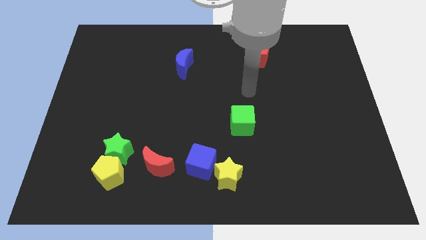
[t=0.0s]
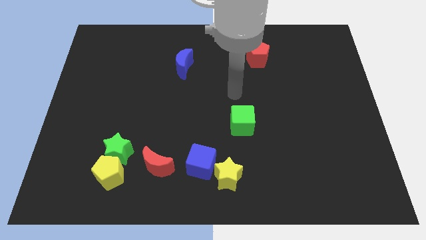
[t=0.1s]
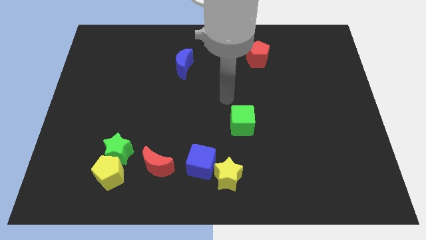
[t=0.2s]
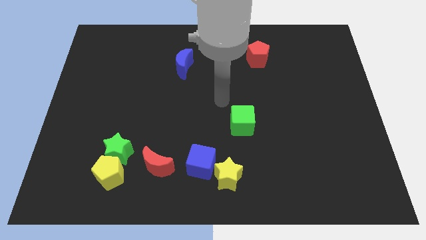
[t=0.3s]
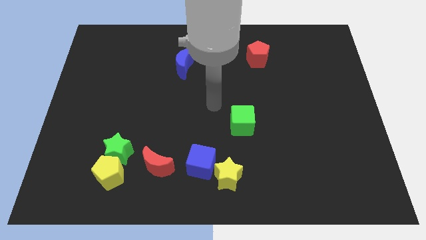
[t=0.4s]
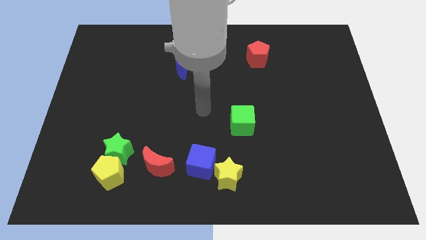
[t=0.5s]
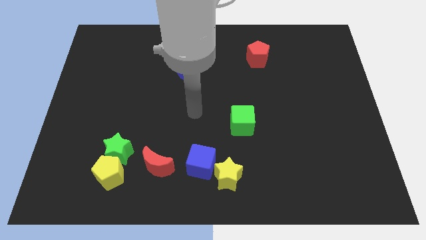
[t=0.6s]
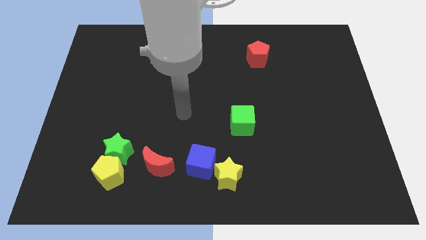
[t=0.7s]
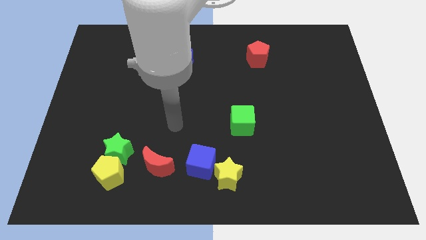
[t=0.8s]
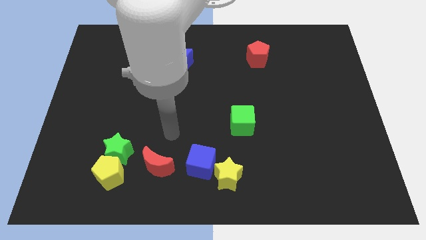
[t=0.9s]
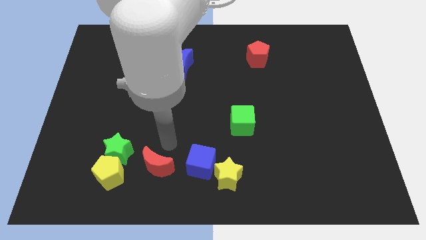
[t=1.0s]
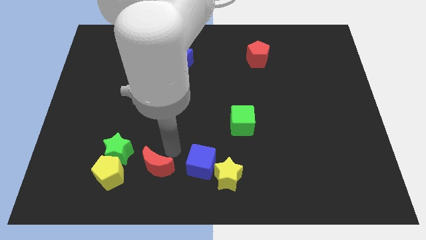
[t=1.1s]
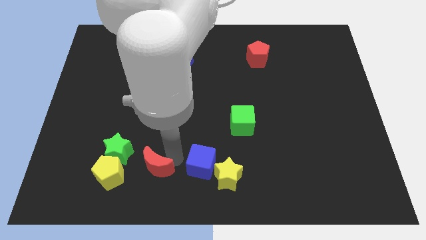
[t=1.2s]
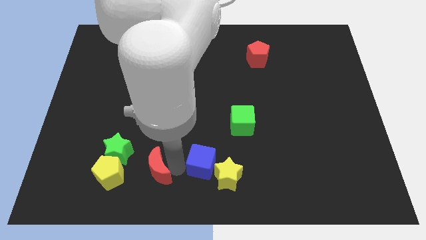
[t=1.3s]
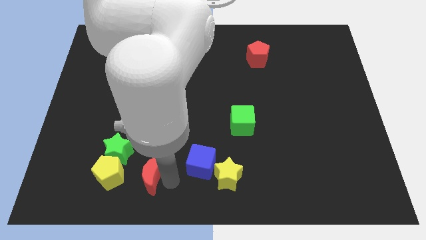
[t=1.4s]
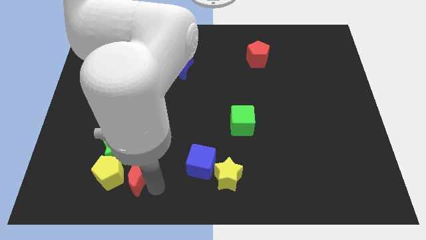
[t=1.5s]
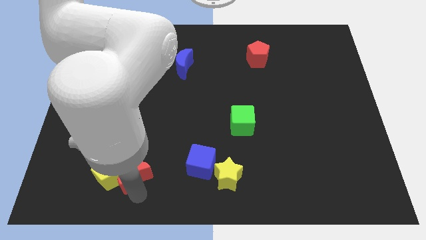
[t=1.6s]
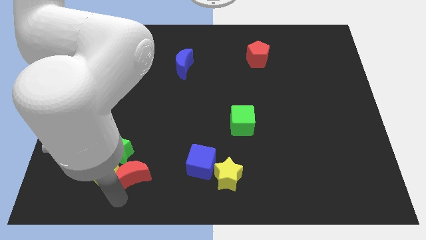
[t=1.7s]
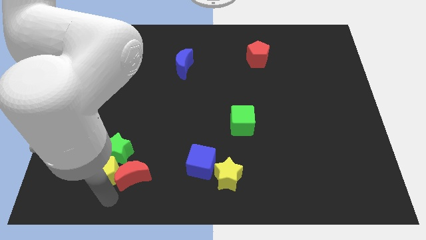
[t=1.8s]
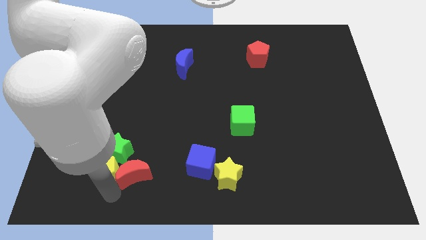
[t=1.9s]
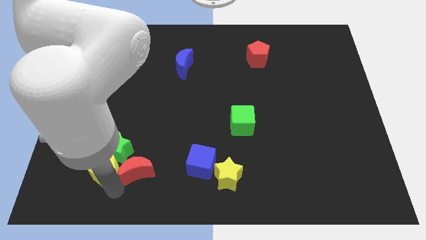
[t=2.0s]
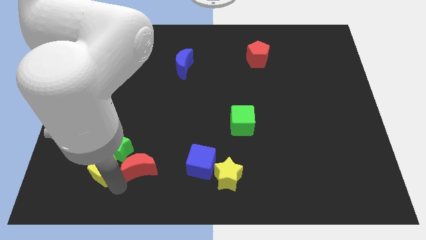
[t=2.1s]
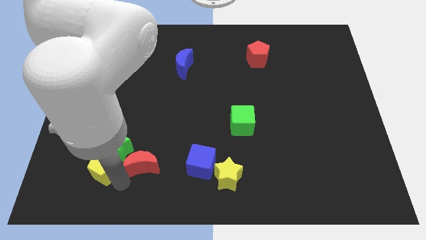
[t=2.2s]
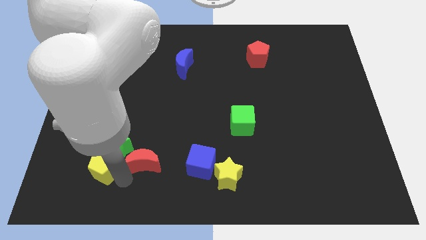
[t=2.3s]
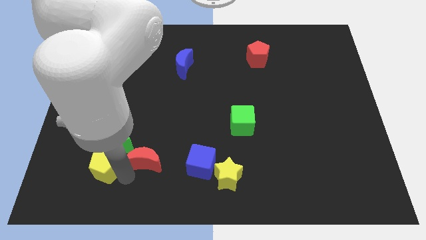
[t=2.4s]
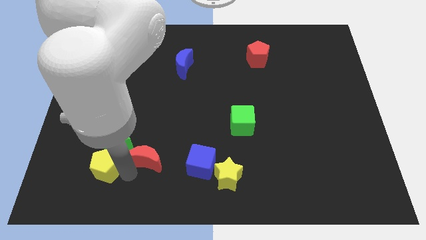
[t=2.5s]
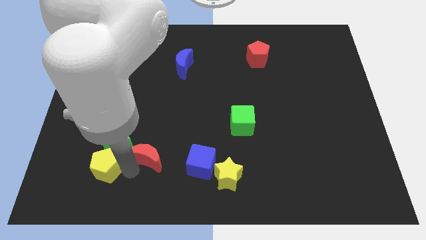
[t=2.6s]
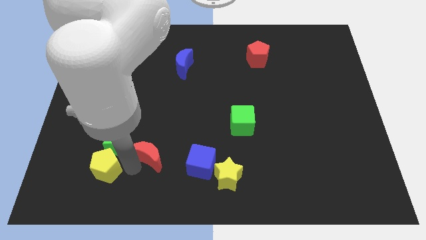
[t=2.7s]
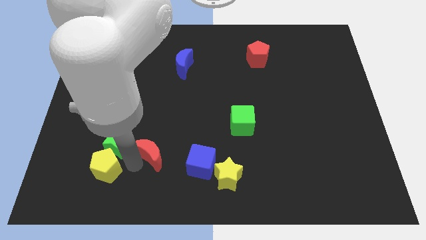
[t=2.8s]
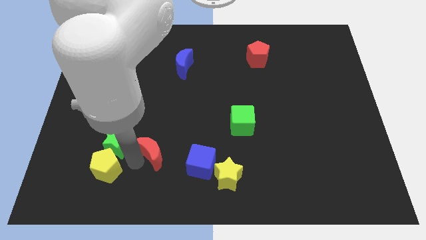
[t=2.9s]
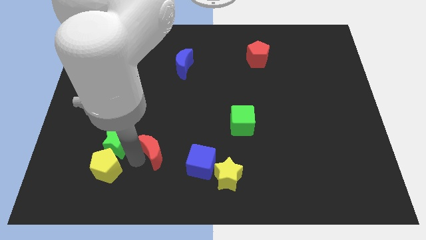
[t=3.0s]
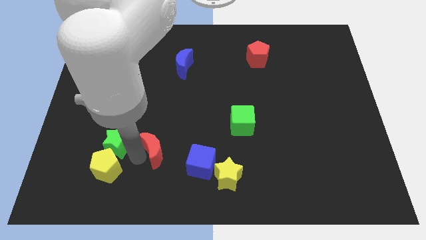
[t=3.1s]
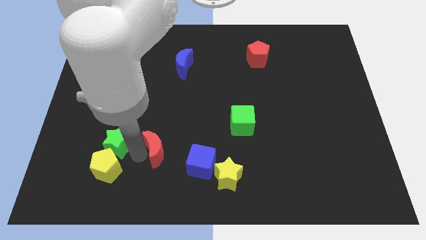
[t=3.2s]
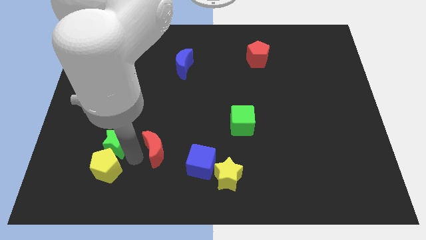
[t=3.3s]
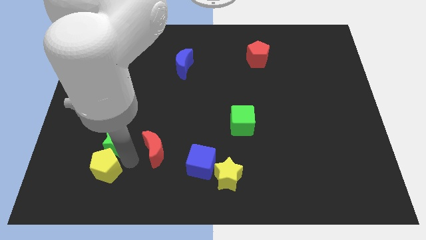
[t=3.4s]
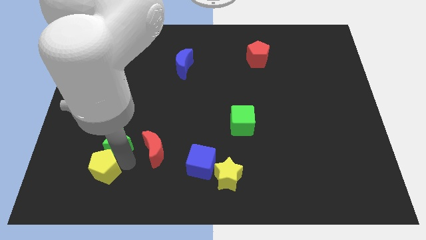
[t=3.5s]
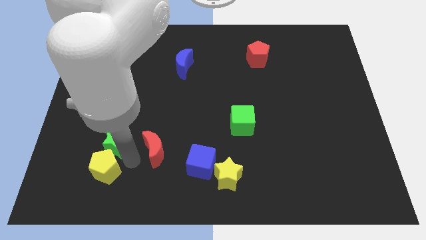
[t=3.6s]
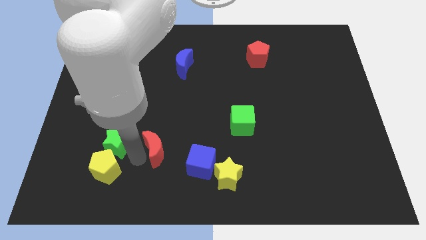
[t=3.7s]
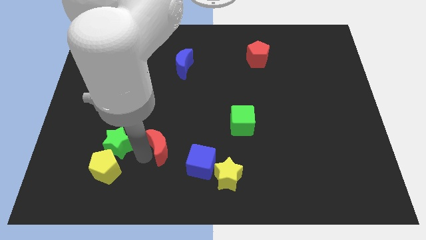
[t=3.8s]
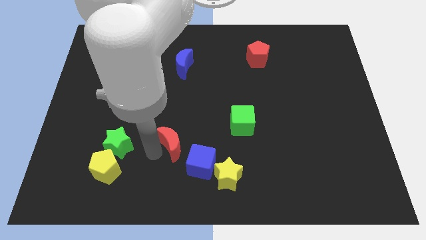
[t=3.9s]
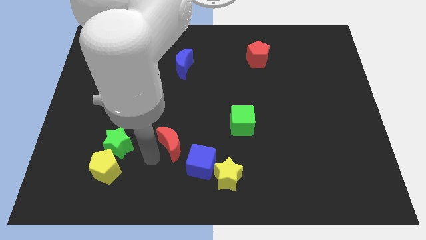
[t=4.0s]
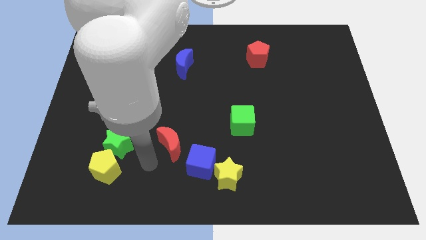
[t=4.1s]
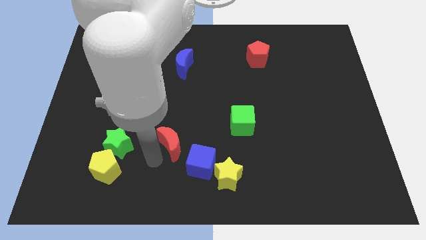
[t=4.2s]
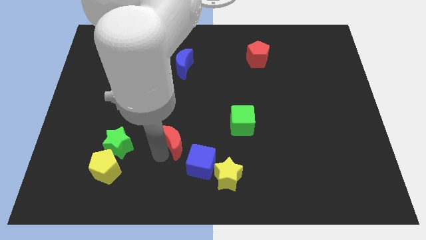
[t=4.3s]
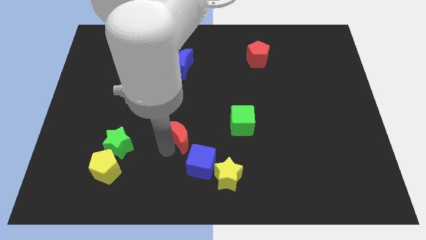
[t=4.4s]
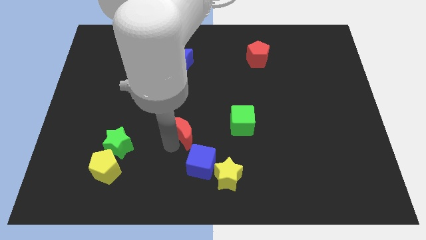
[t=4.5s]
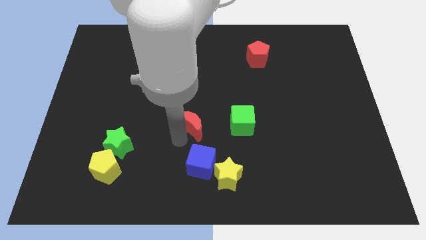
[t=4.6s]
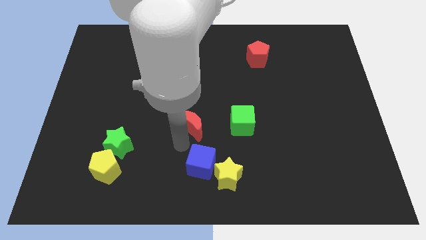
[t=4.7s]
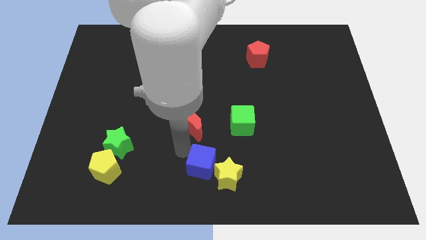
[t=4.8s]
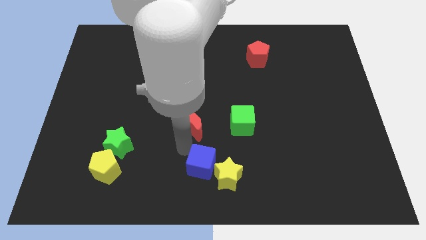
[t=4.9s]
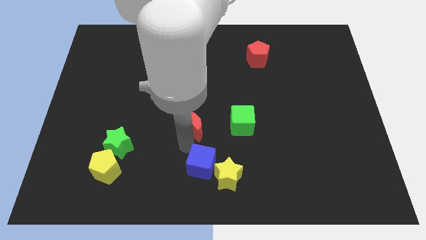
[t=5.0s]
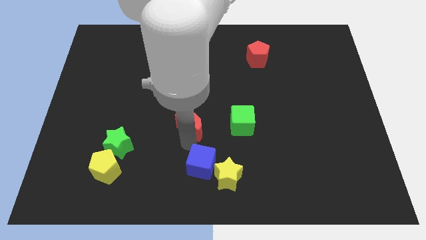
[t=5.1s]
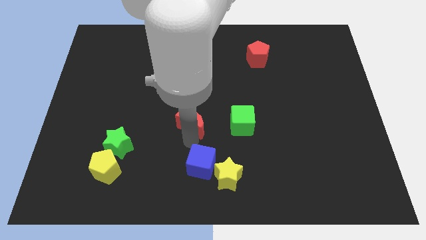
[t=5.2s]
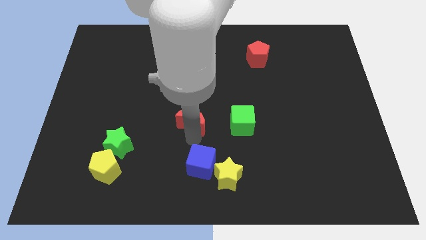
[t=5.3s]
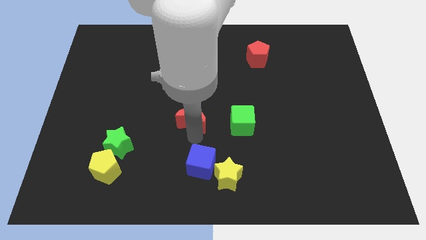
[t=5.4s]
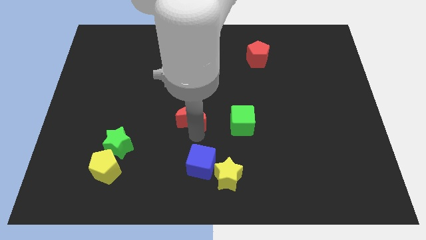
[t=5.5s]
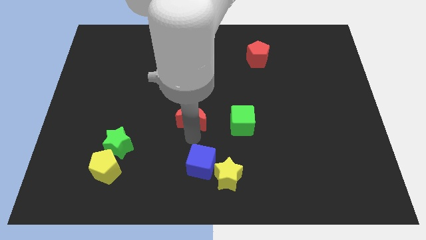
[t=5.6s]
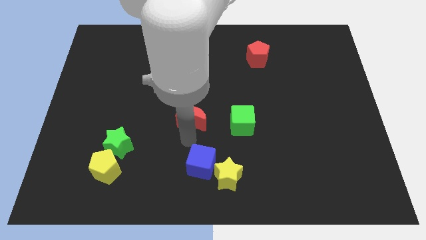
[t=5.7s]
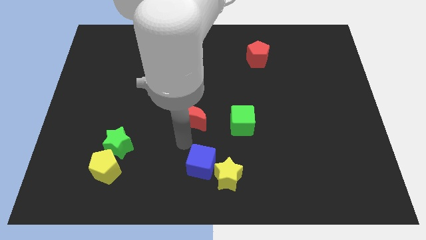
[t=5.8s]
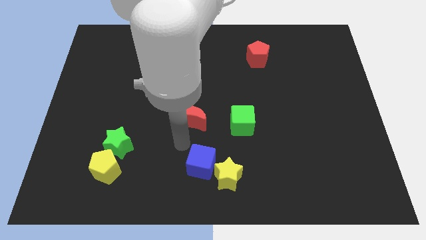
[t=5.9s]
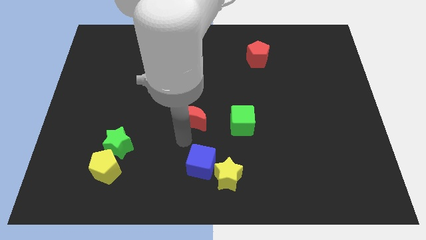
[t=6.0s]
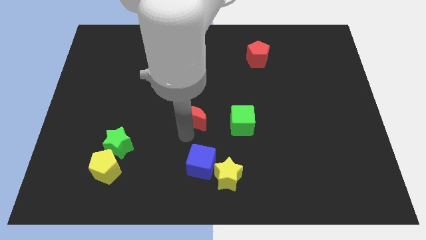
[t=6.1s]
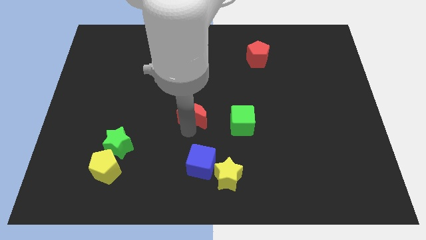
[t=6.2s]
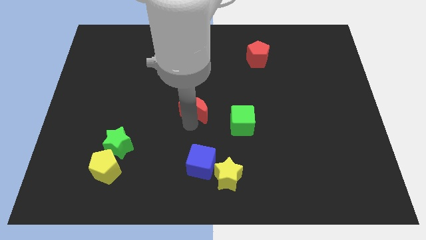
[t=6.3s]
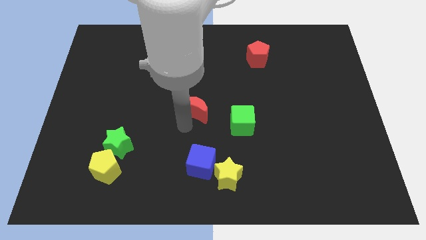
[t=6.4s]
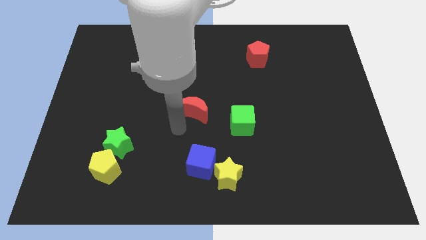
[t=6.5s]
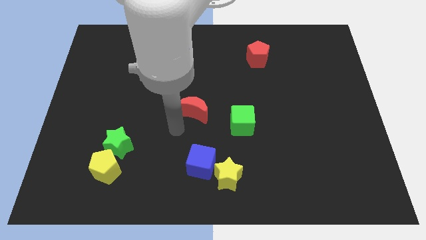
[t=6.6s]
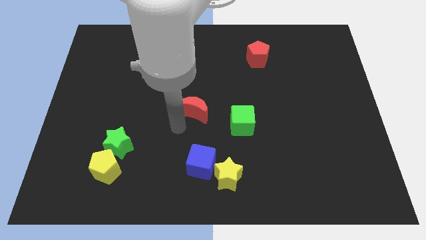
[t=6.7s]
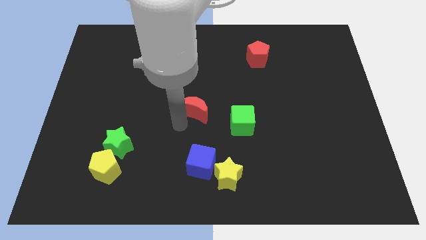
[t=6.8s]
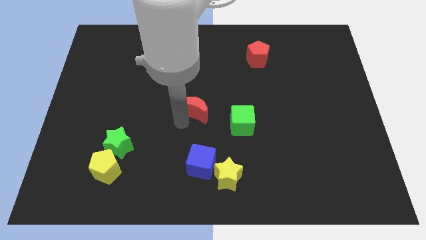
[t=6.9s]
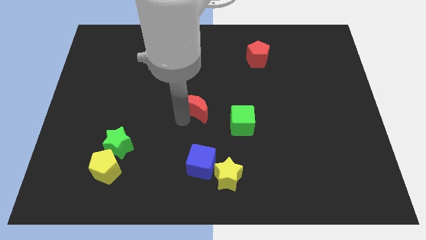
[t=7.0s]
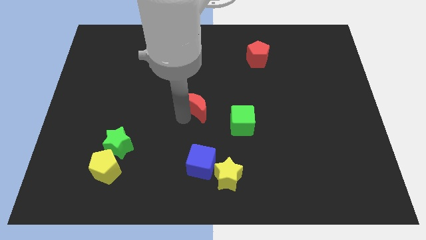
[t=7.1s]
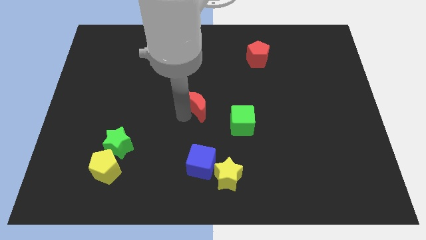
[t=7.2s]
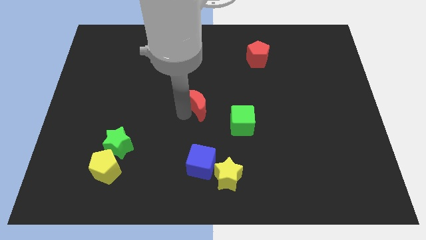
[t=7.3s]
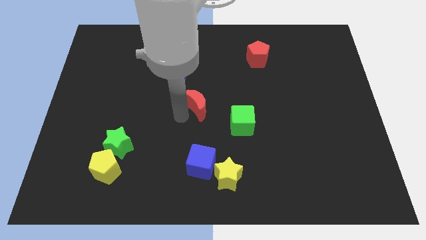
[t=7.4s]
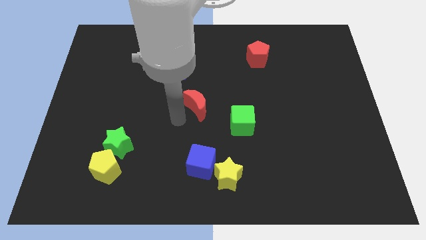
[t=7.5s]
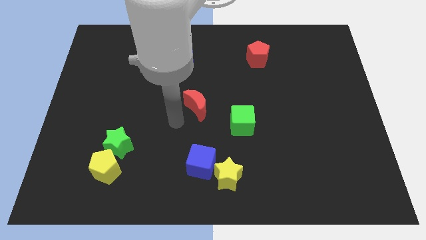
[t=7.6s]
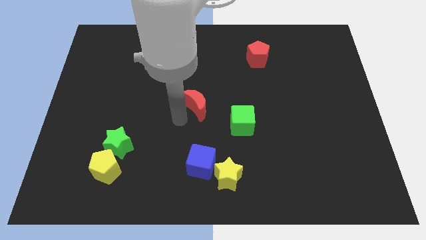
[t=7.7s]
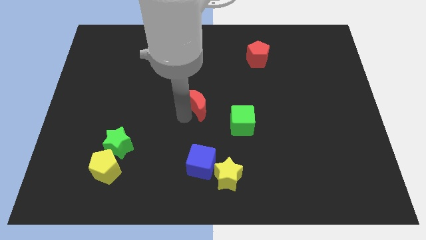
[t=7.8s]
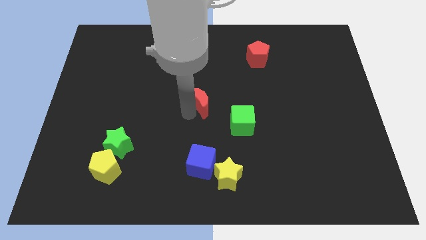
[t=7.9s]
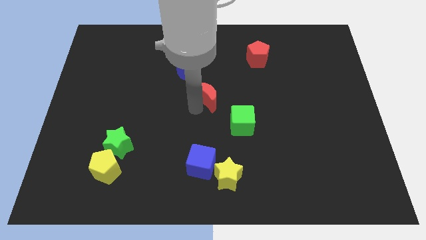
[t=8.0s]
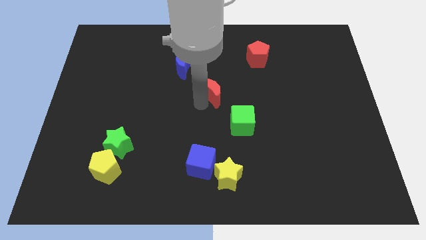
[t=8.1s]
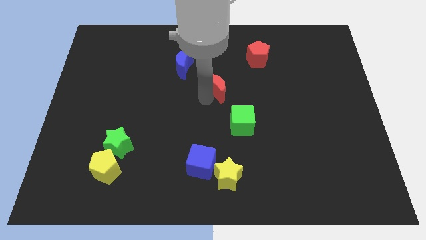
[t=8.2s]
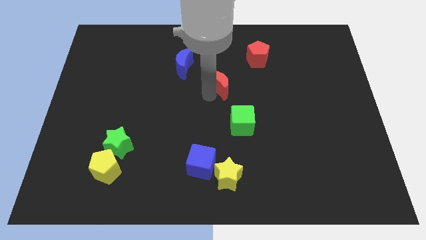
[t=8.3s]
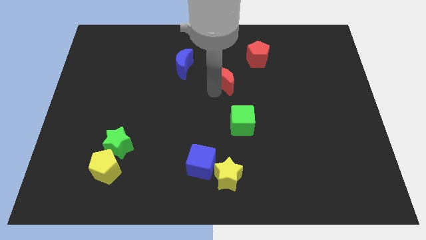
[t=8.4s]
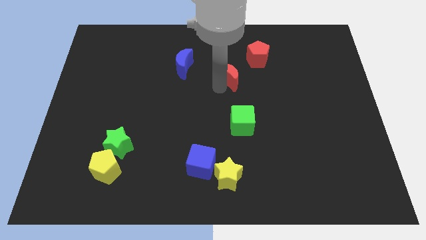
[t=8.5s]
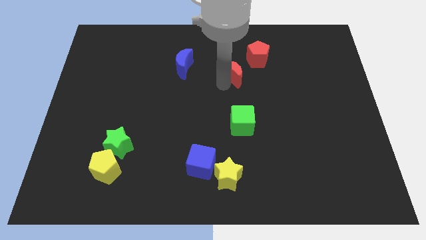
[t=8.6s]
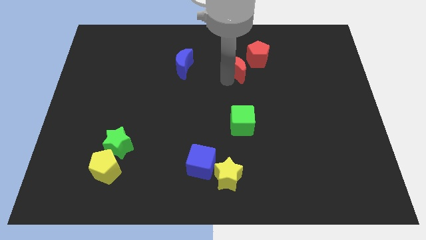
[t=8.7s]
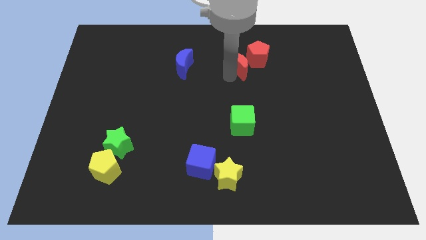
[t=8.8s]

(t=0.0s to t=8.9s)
push the red moon towards the red pentagon
